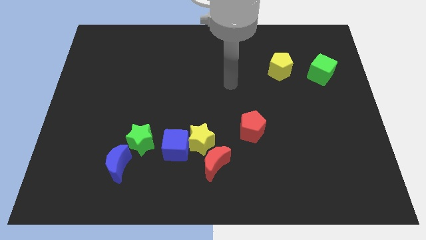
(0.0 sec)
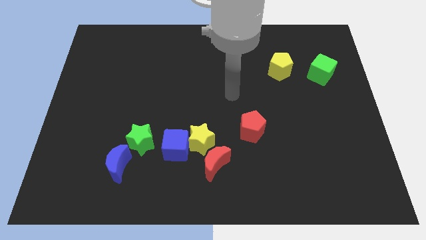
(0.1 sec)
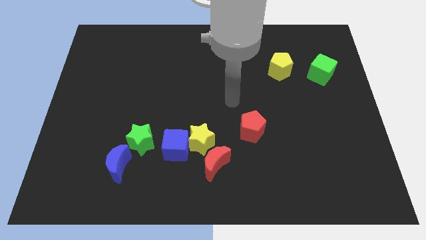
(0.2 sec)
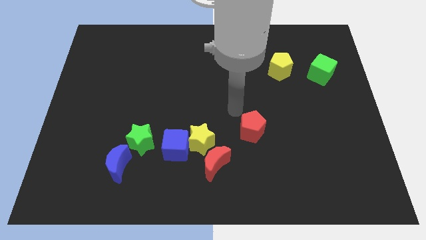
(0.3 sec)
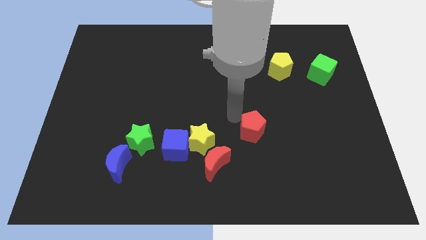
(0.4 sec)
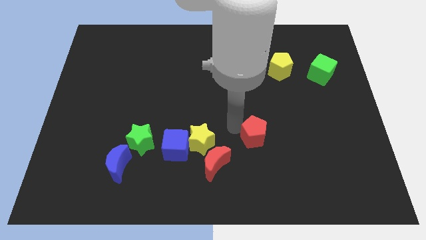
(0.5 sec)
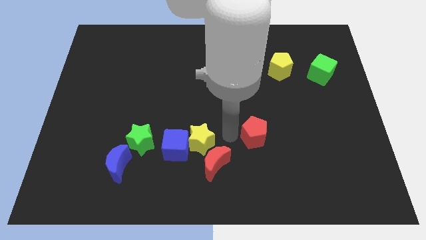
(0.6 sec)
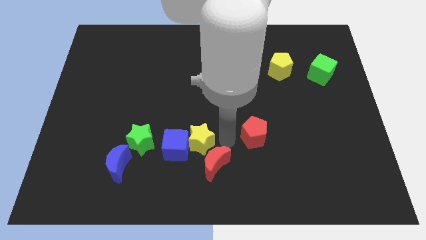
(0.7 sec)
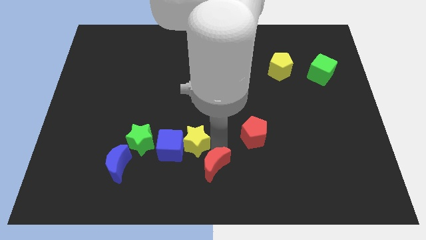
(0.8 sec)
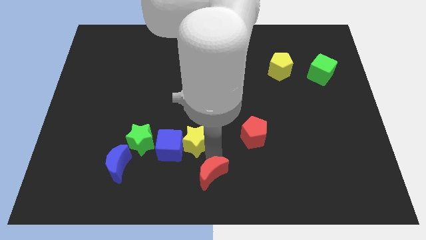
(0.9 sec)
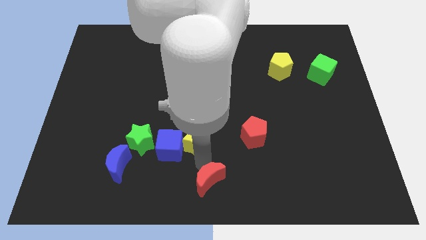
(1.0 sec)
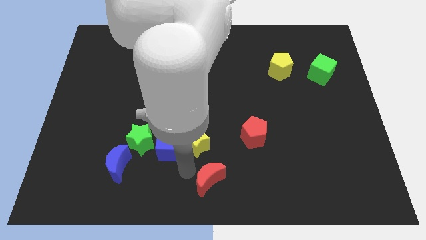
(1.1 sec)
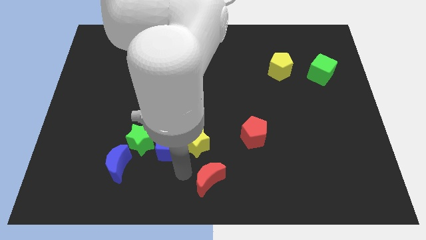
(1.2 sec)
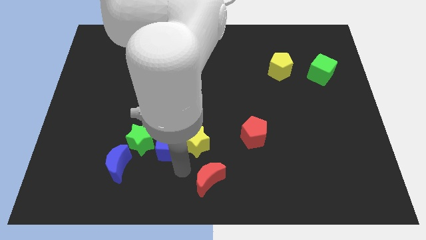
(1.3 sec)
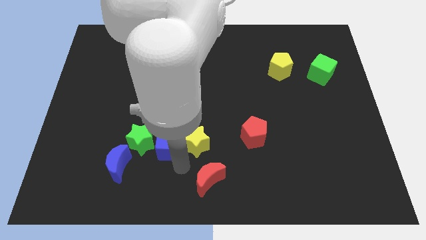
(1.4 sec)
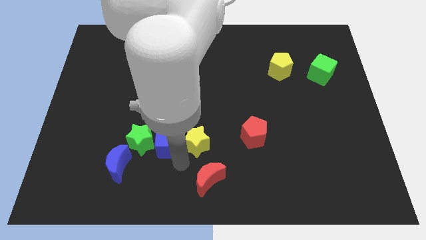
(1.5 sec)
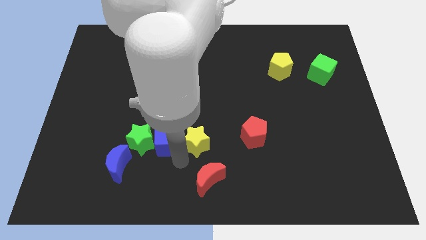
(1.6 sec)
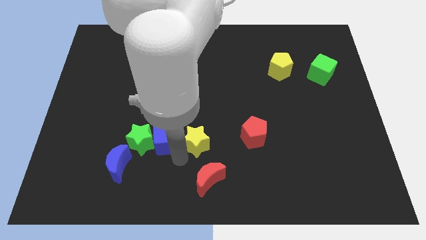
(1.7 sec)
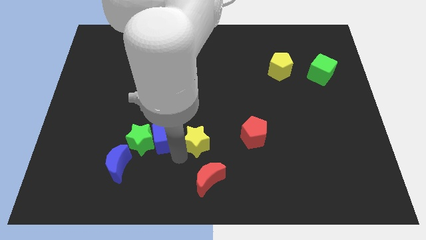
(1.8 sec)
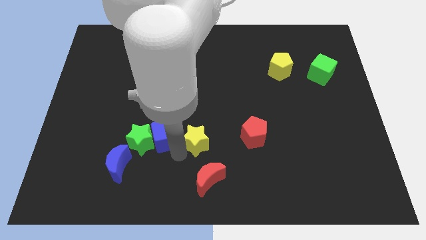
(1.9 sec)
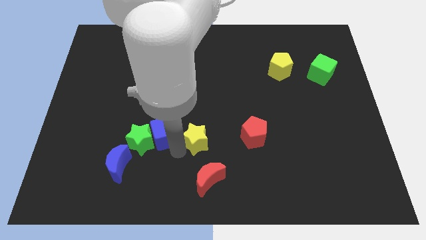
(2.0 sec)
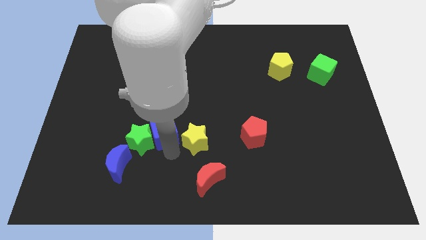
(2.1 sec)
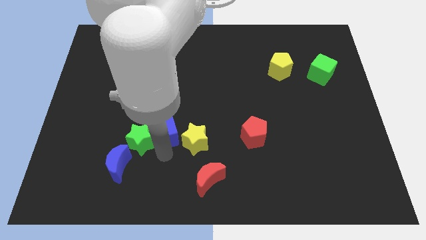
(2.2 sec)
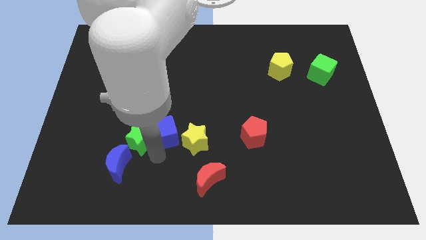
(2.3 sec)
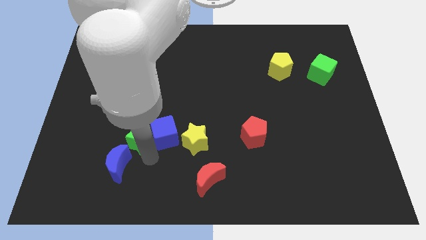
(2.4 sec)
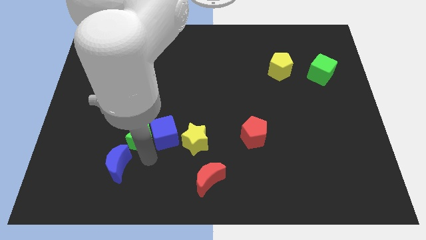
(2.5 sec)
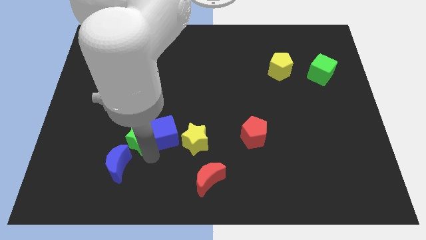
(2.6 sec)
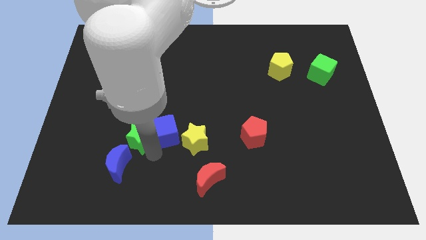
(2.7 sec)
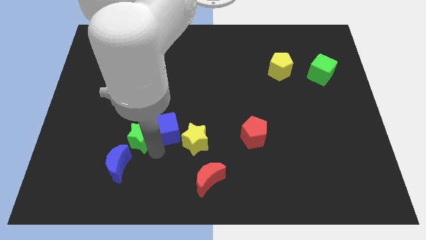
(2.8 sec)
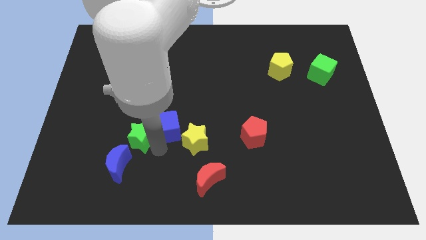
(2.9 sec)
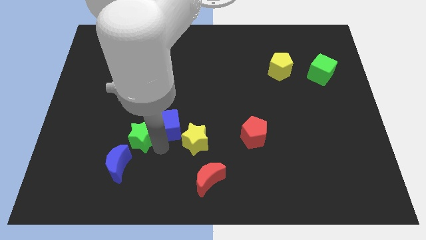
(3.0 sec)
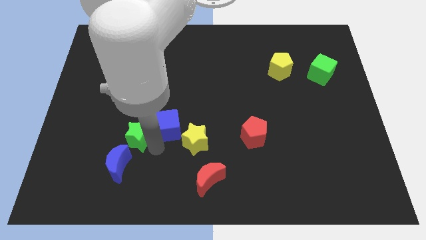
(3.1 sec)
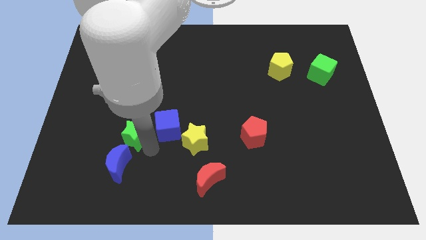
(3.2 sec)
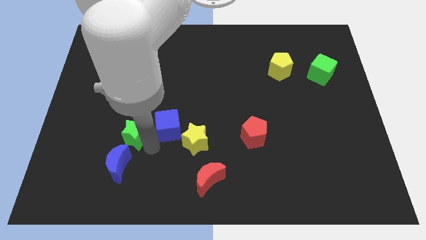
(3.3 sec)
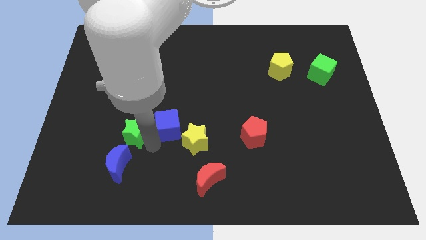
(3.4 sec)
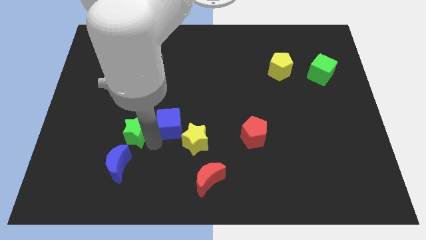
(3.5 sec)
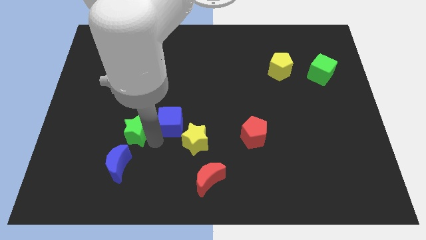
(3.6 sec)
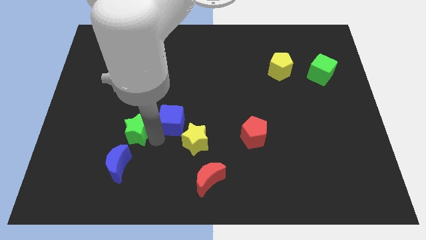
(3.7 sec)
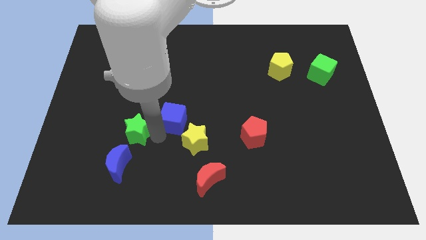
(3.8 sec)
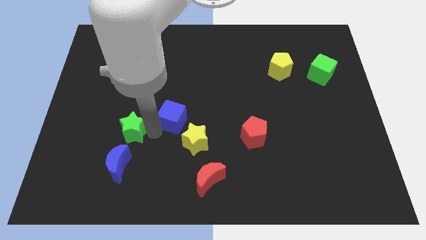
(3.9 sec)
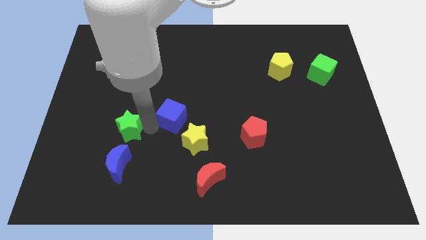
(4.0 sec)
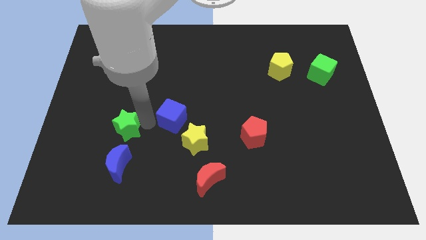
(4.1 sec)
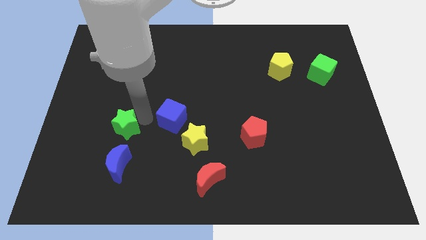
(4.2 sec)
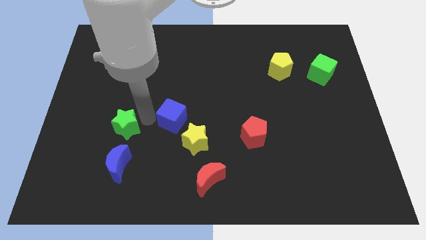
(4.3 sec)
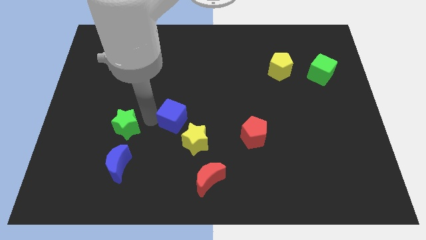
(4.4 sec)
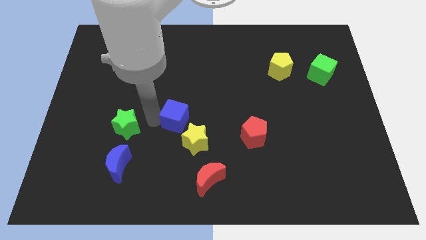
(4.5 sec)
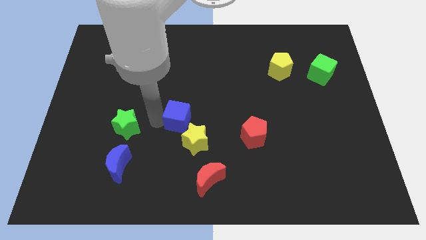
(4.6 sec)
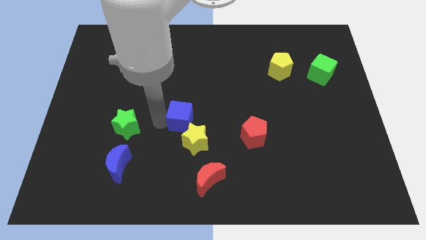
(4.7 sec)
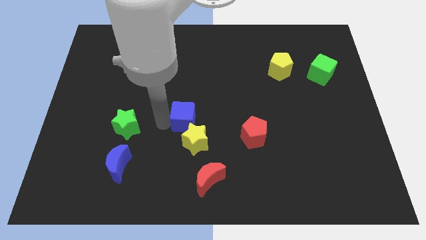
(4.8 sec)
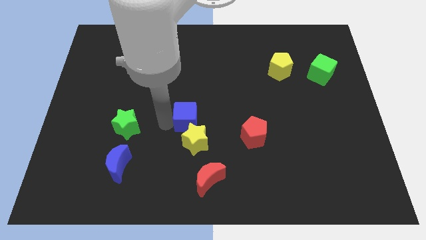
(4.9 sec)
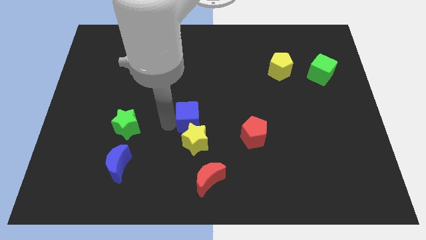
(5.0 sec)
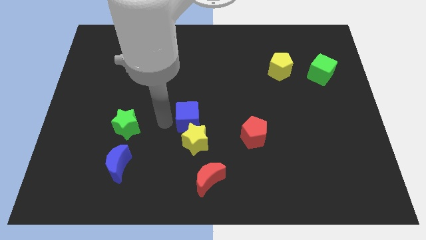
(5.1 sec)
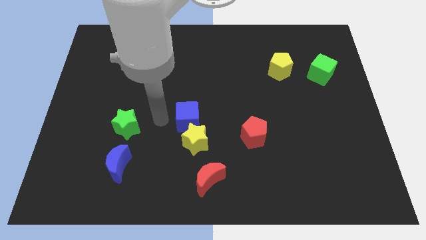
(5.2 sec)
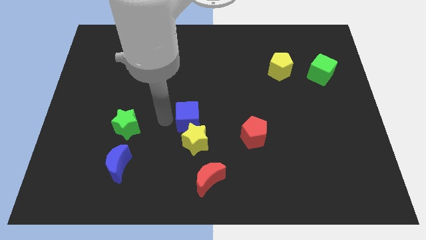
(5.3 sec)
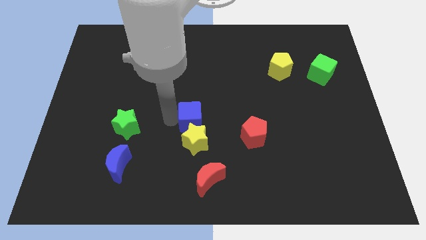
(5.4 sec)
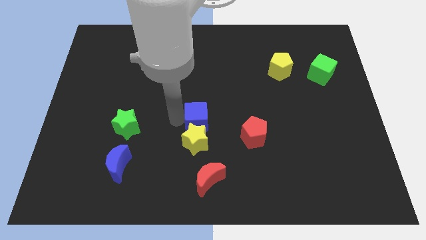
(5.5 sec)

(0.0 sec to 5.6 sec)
push the blue cube diagonally up and to the right of the yellow star

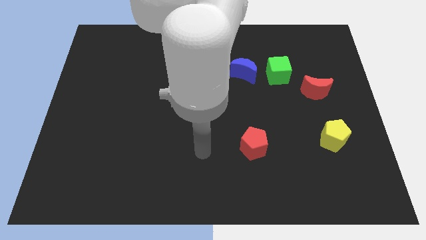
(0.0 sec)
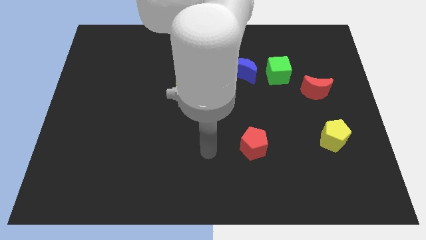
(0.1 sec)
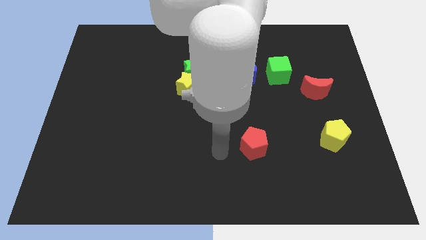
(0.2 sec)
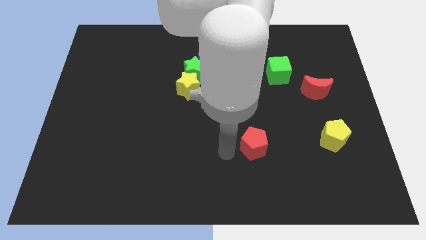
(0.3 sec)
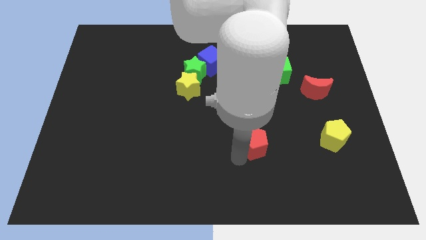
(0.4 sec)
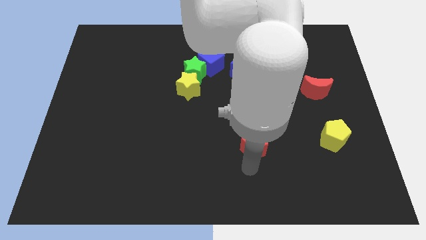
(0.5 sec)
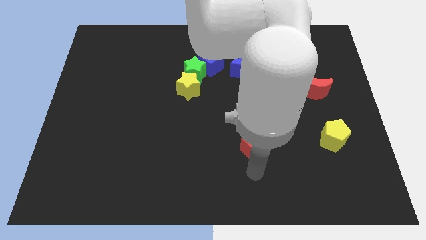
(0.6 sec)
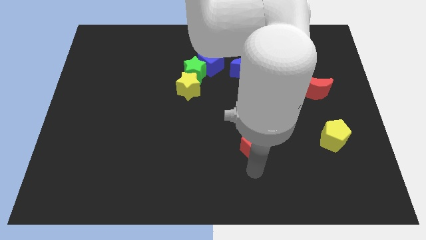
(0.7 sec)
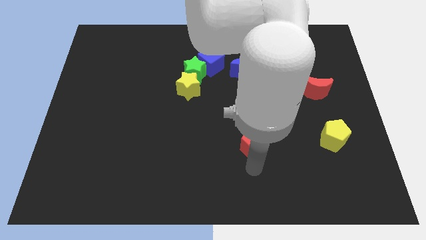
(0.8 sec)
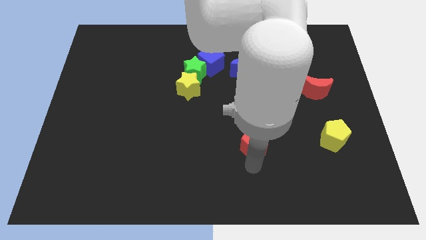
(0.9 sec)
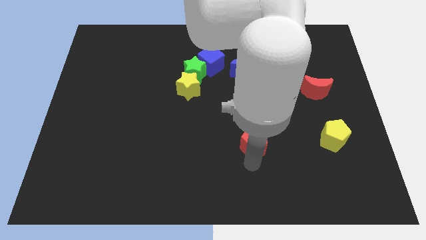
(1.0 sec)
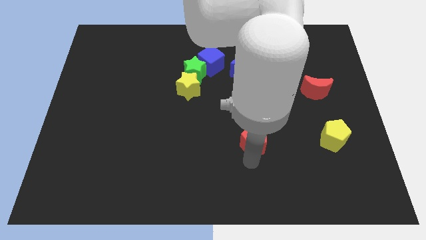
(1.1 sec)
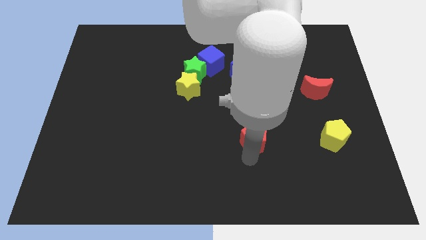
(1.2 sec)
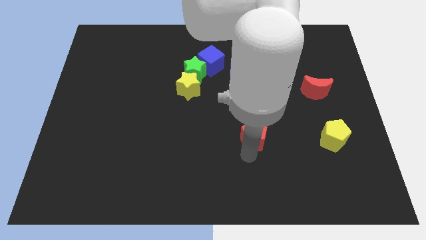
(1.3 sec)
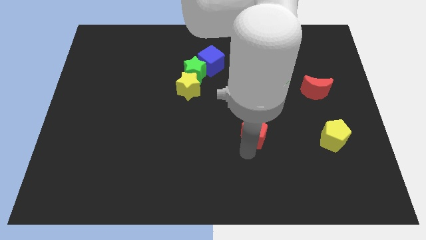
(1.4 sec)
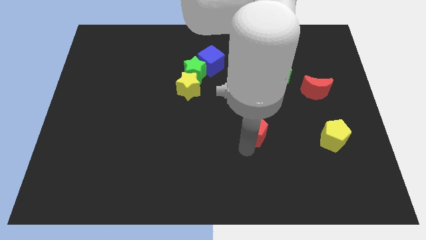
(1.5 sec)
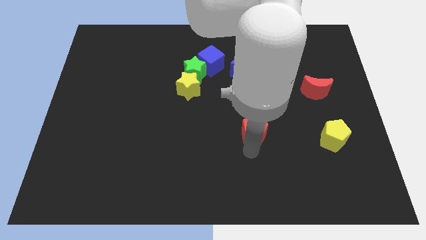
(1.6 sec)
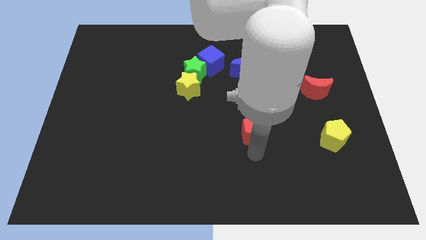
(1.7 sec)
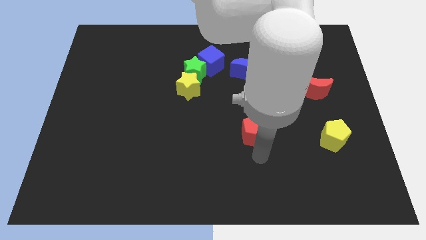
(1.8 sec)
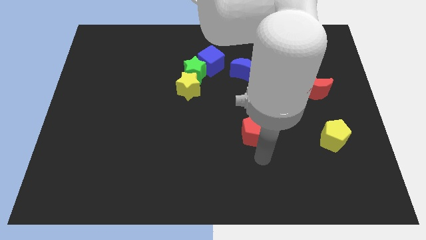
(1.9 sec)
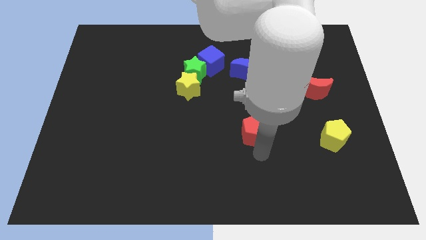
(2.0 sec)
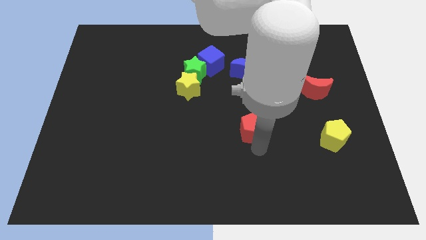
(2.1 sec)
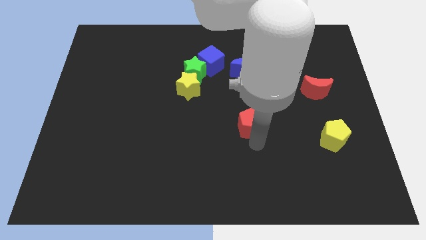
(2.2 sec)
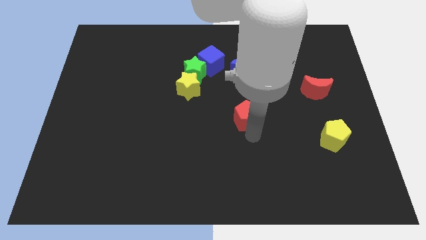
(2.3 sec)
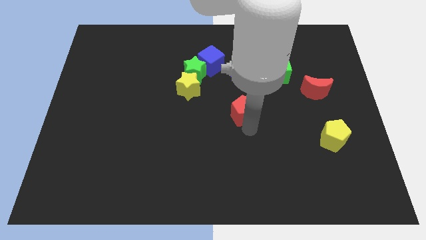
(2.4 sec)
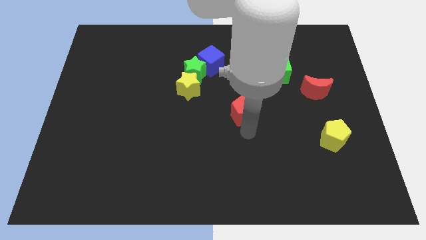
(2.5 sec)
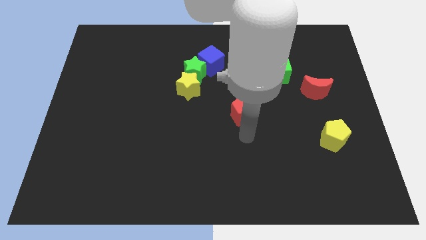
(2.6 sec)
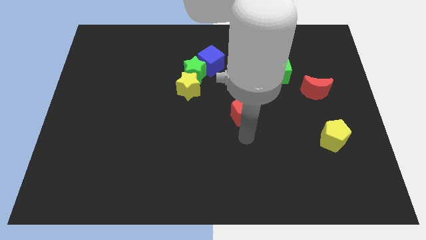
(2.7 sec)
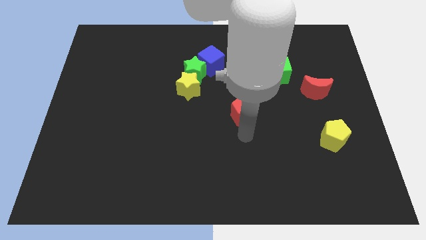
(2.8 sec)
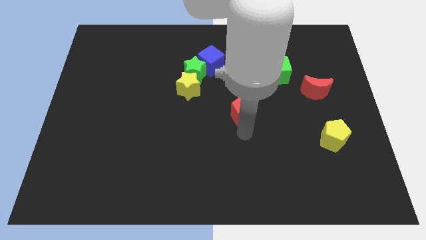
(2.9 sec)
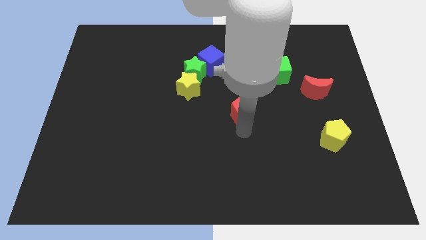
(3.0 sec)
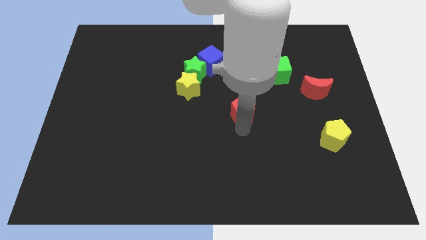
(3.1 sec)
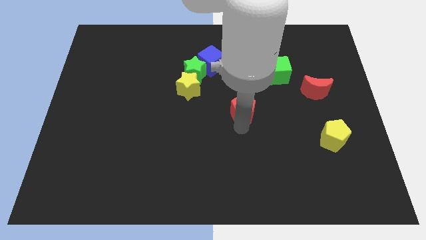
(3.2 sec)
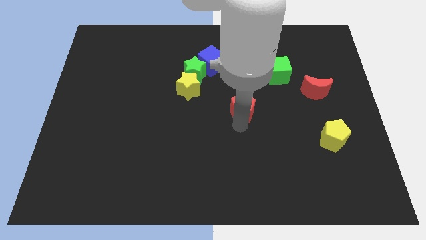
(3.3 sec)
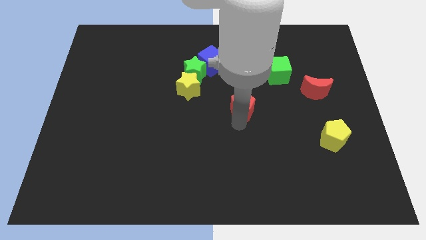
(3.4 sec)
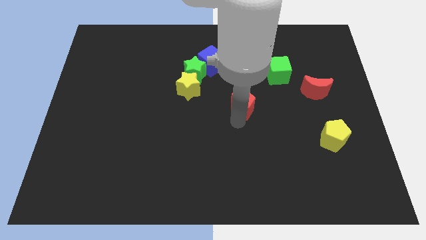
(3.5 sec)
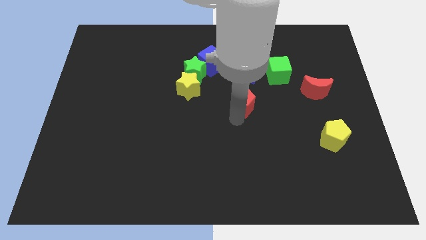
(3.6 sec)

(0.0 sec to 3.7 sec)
slide the red pentagon to the right of the yellow star
